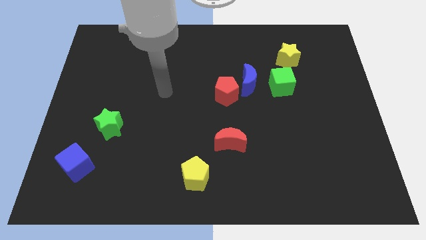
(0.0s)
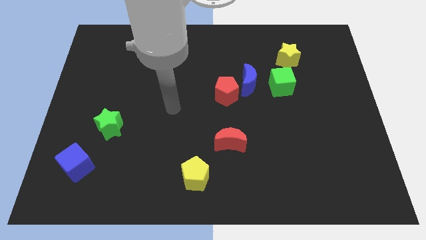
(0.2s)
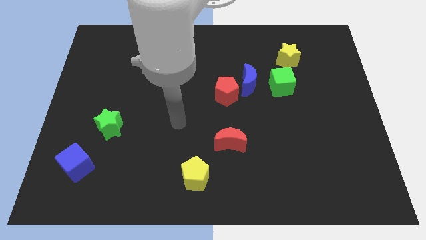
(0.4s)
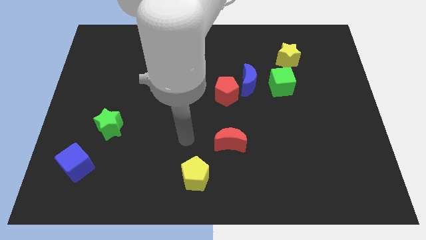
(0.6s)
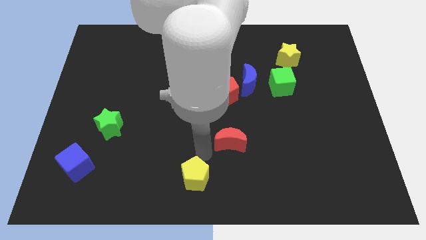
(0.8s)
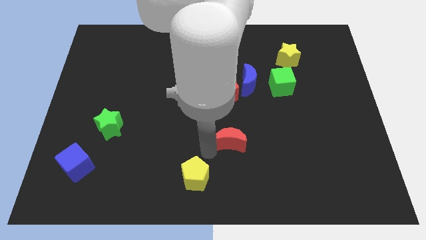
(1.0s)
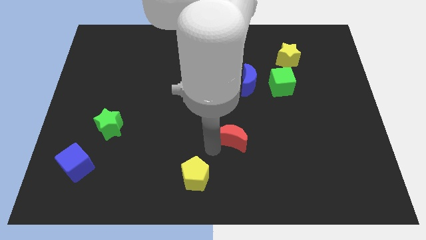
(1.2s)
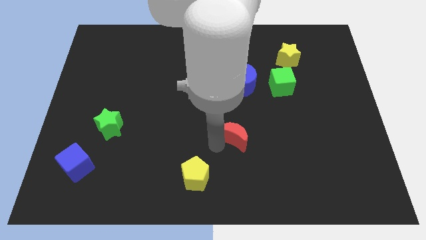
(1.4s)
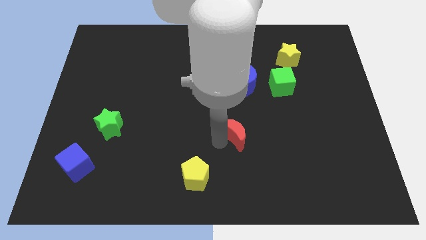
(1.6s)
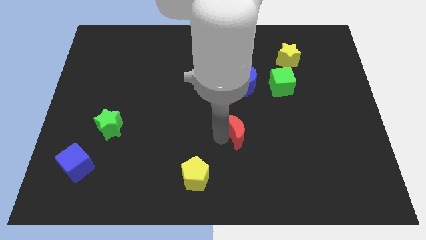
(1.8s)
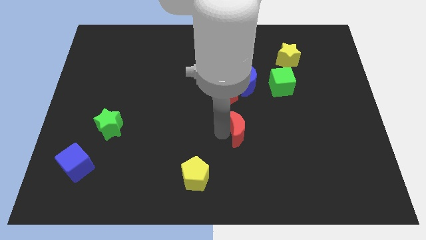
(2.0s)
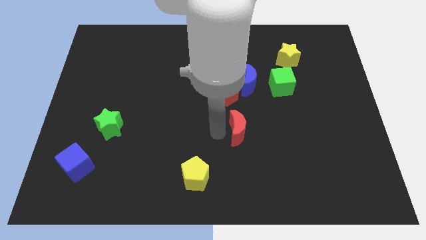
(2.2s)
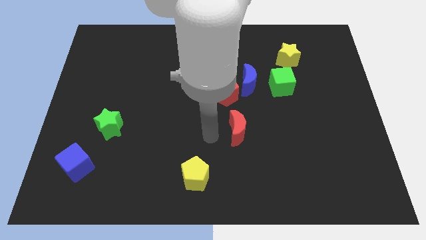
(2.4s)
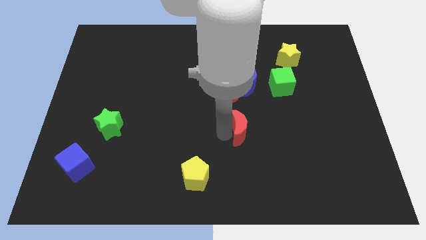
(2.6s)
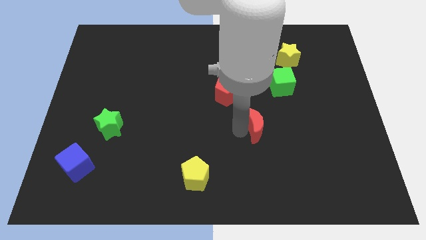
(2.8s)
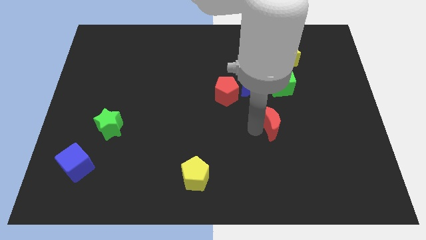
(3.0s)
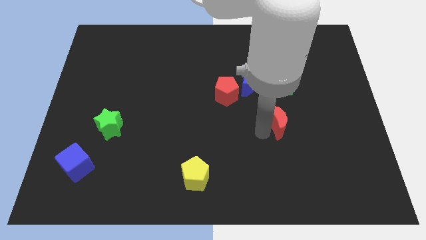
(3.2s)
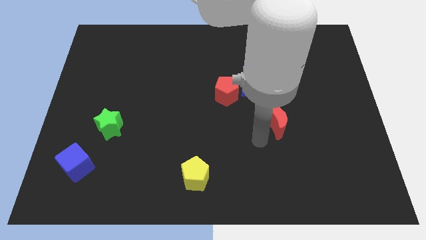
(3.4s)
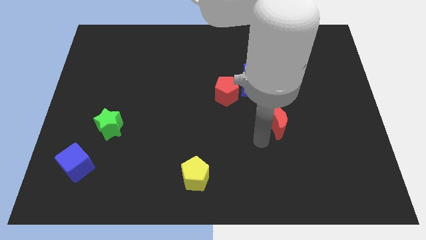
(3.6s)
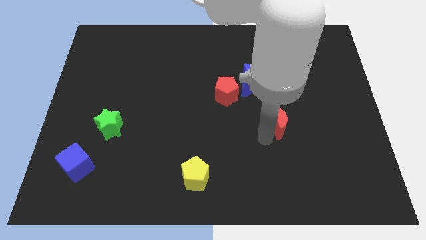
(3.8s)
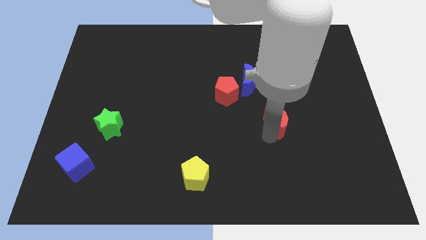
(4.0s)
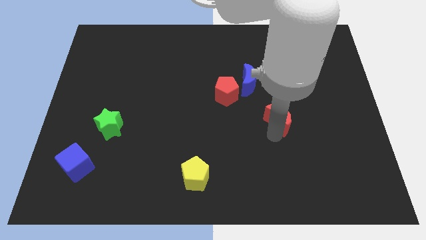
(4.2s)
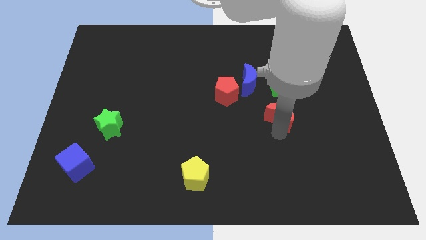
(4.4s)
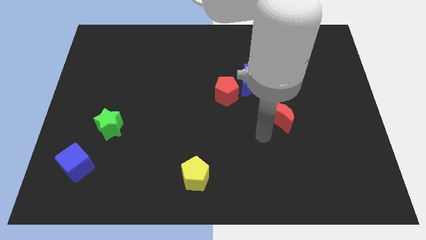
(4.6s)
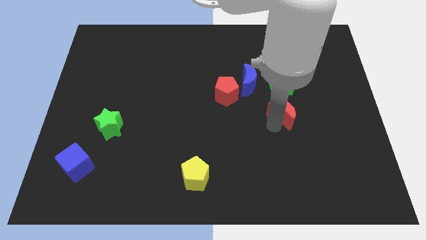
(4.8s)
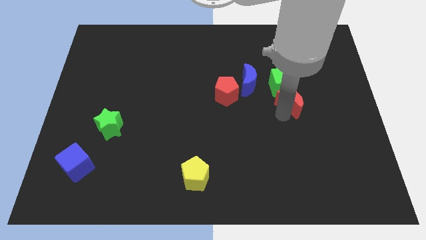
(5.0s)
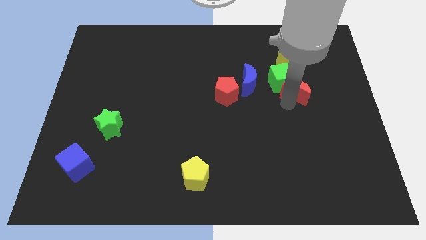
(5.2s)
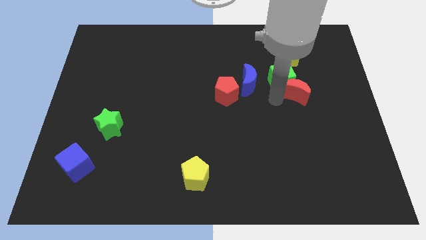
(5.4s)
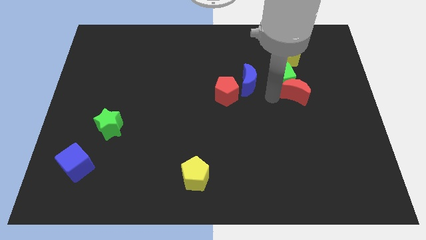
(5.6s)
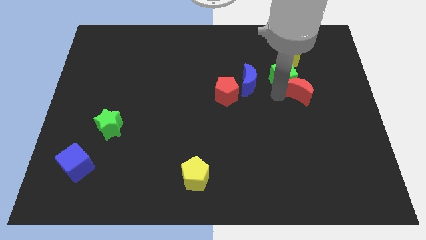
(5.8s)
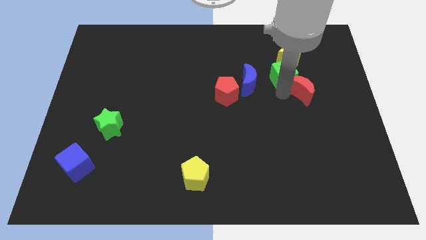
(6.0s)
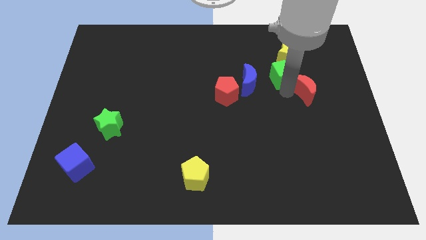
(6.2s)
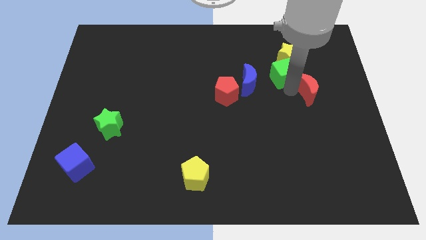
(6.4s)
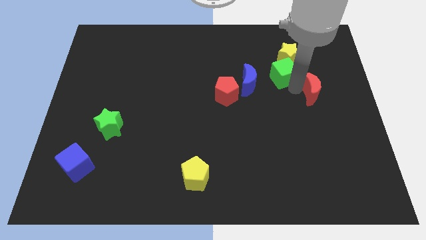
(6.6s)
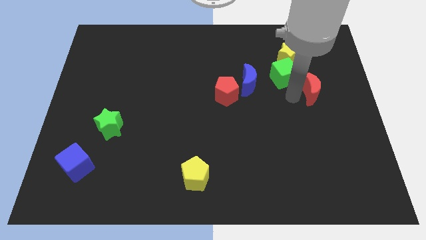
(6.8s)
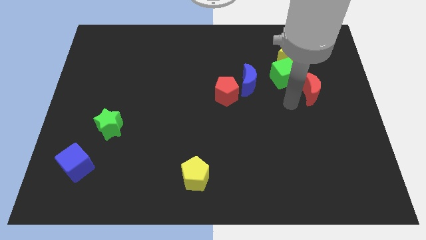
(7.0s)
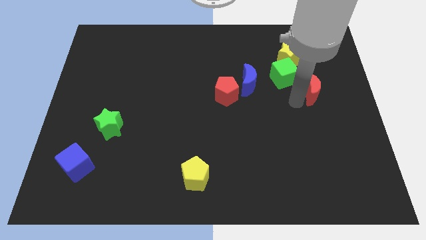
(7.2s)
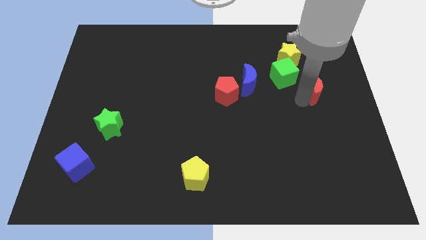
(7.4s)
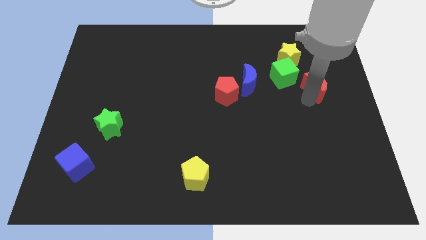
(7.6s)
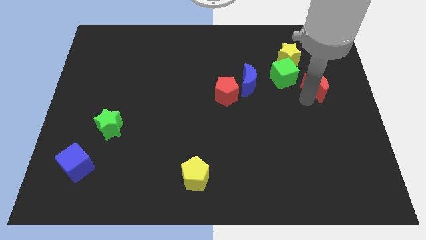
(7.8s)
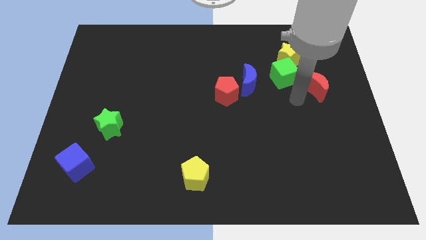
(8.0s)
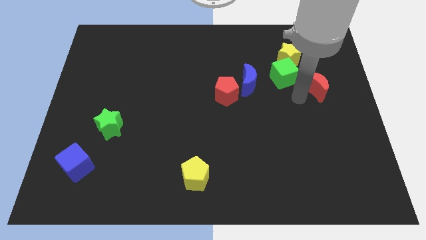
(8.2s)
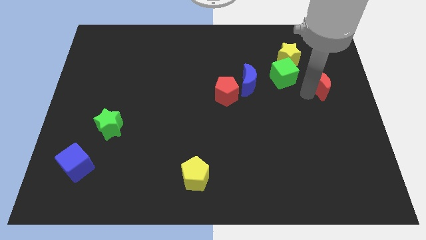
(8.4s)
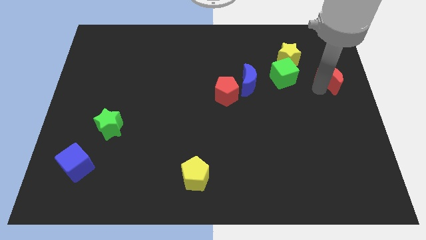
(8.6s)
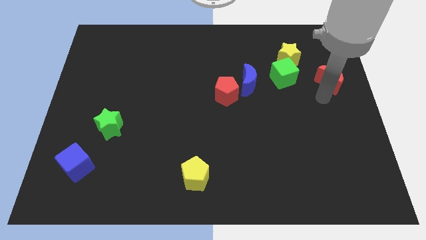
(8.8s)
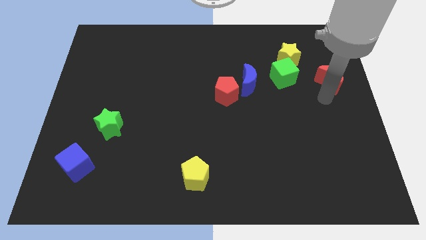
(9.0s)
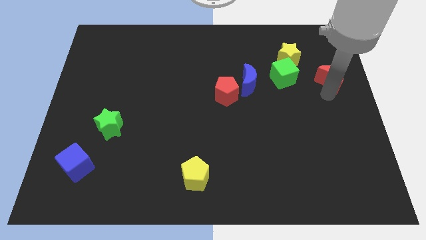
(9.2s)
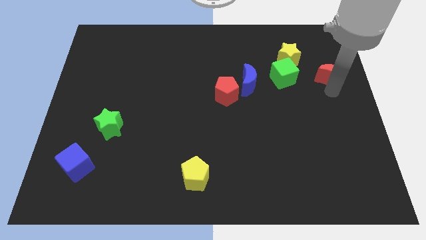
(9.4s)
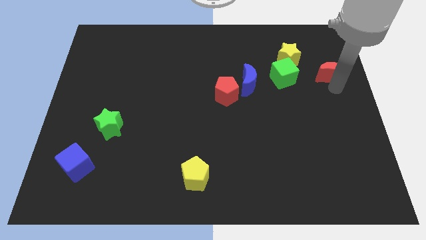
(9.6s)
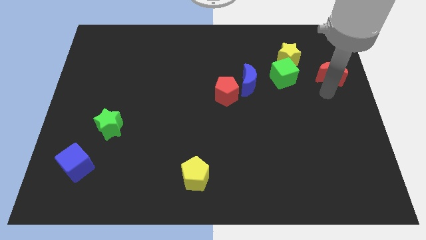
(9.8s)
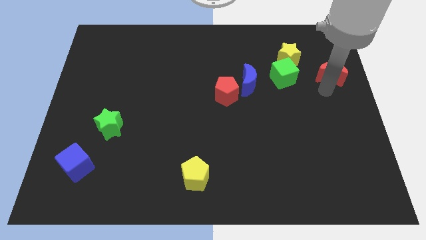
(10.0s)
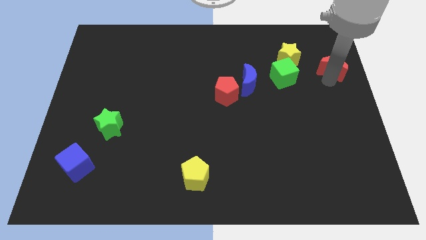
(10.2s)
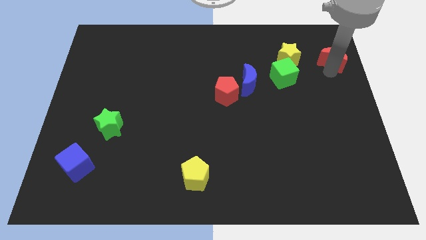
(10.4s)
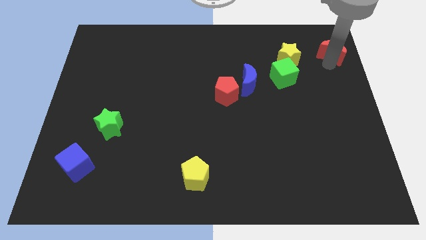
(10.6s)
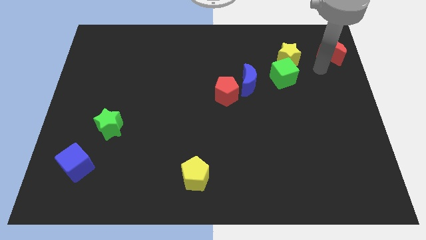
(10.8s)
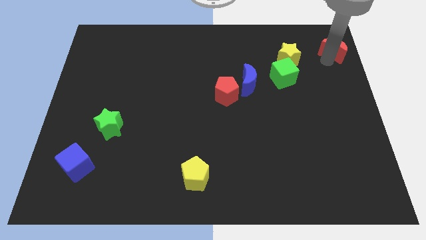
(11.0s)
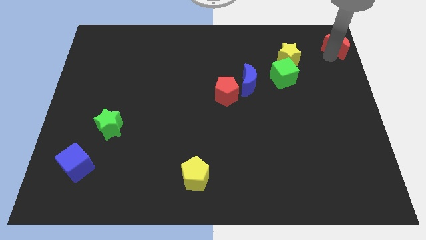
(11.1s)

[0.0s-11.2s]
slide the red moon to the upper right corner

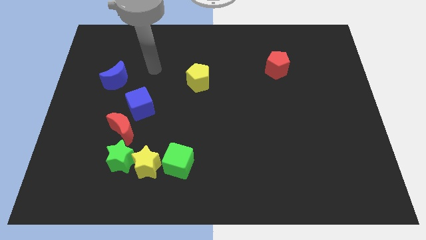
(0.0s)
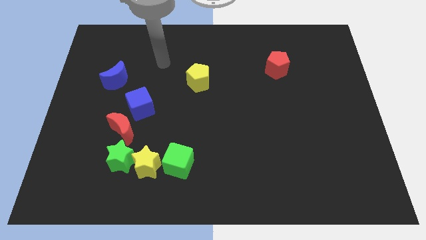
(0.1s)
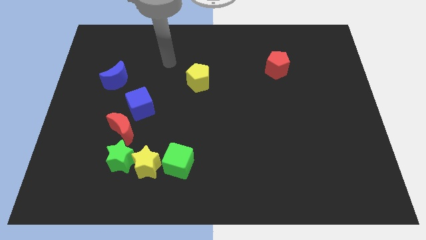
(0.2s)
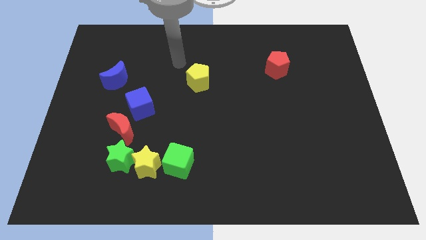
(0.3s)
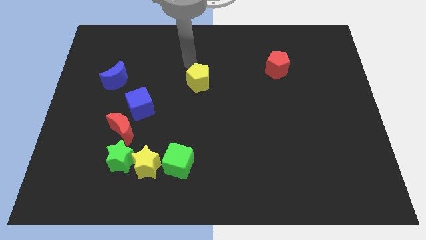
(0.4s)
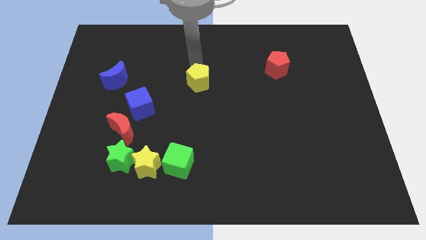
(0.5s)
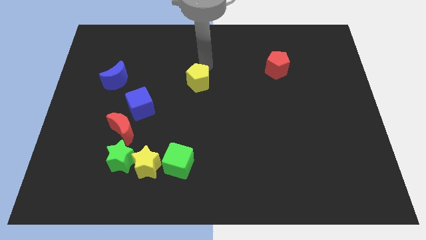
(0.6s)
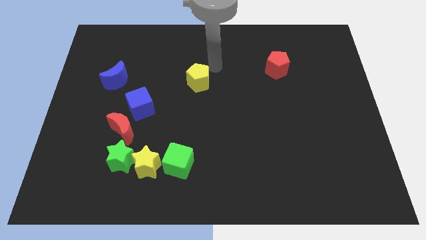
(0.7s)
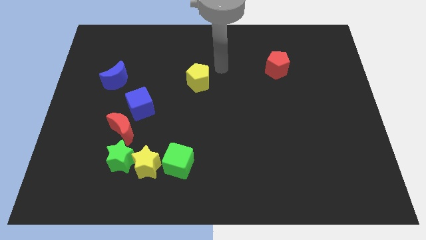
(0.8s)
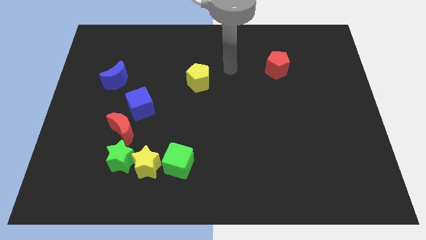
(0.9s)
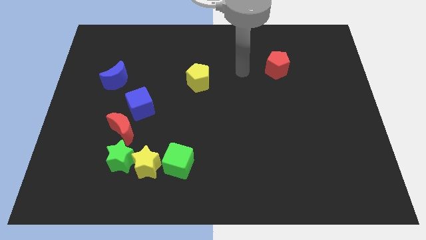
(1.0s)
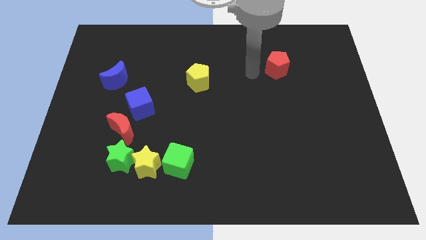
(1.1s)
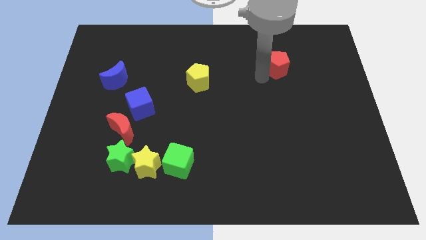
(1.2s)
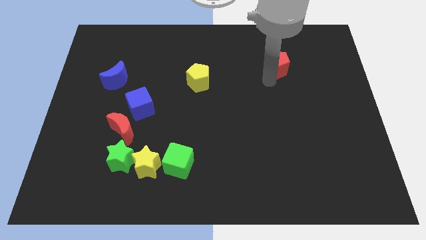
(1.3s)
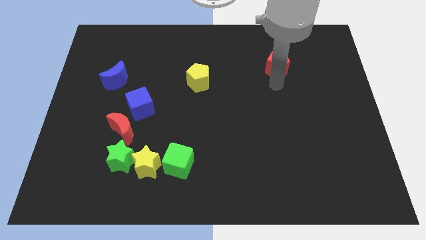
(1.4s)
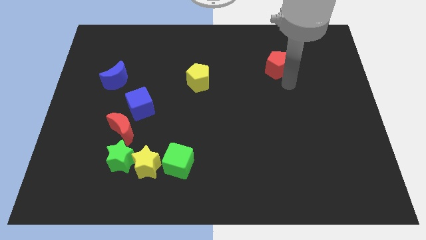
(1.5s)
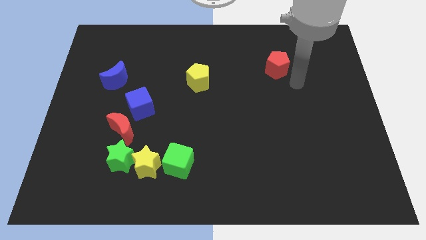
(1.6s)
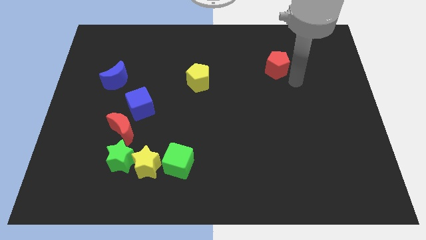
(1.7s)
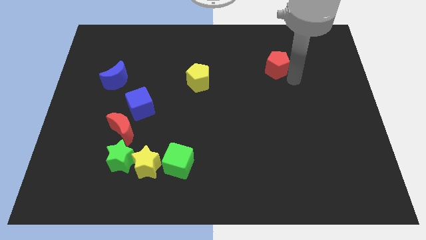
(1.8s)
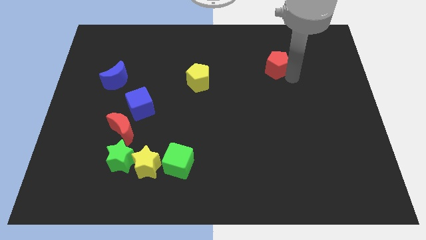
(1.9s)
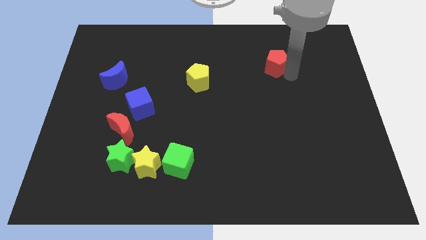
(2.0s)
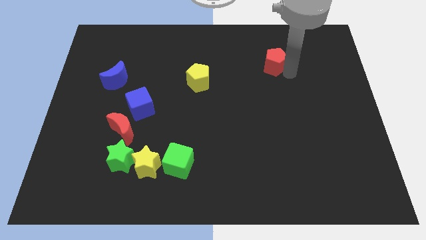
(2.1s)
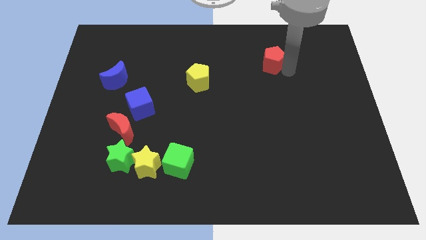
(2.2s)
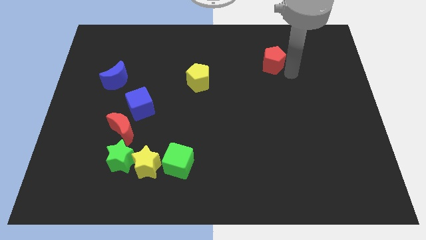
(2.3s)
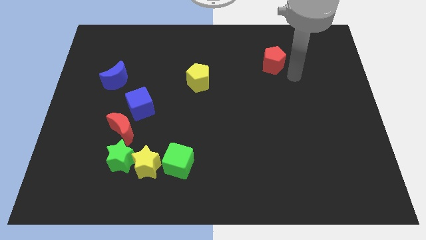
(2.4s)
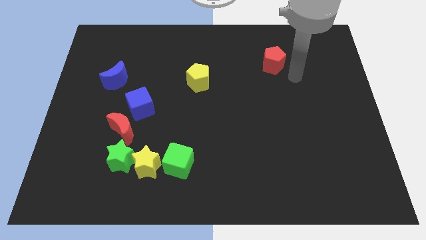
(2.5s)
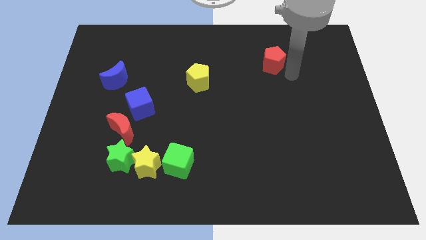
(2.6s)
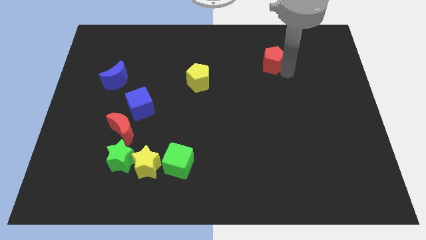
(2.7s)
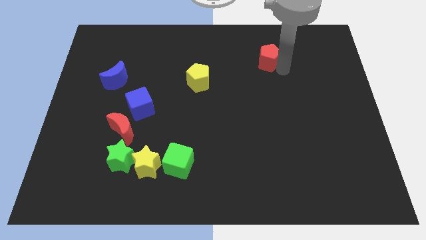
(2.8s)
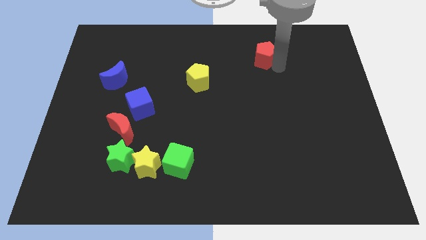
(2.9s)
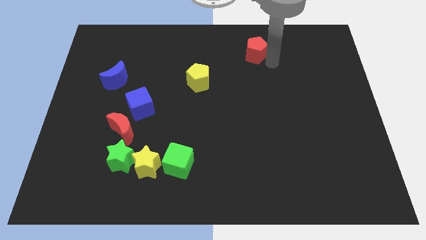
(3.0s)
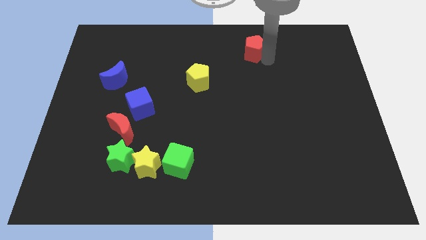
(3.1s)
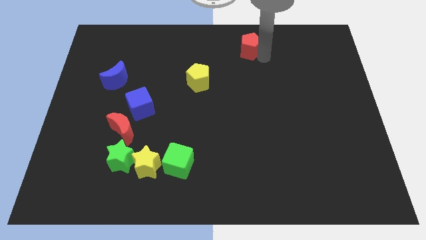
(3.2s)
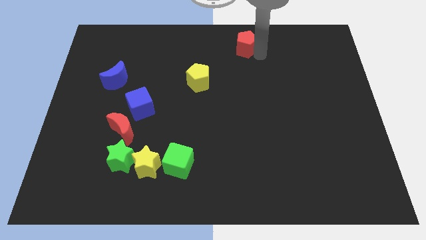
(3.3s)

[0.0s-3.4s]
push the red pentagon to the top side
